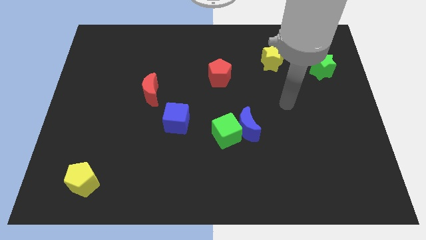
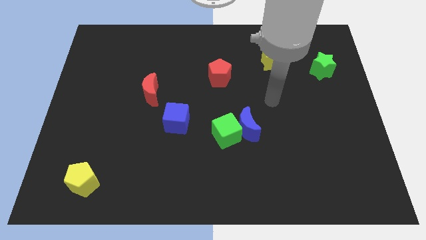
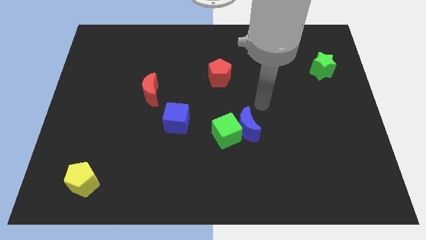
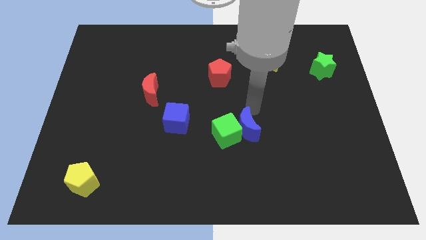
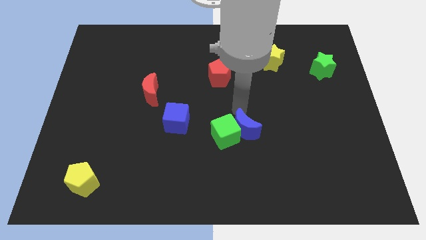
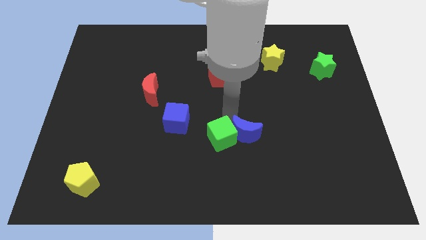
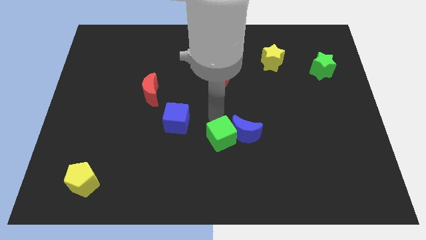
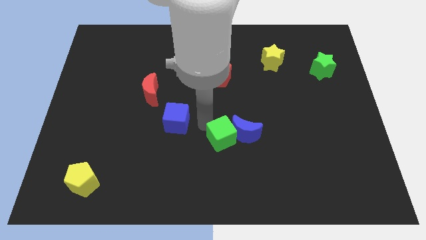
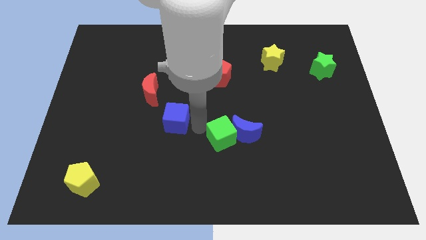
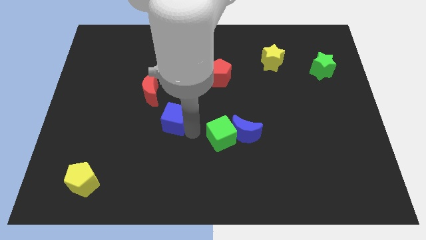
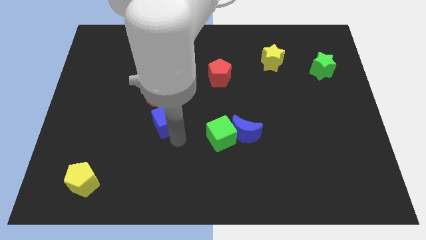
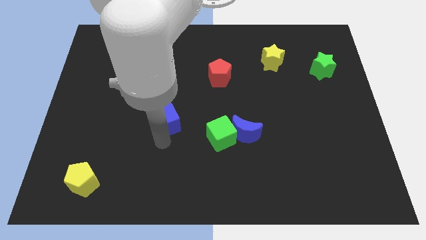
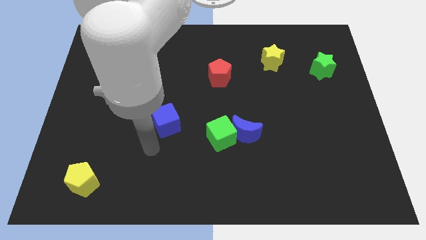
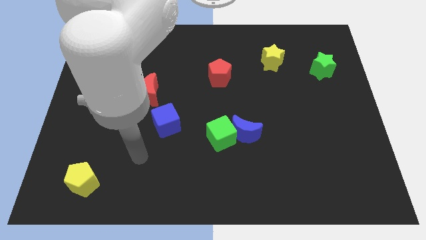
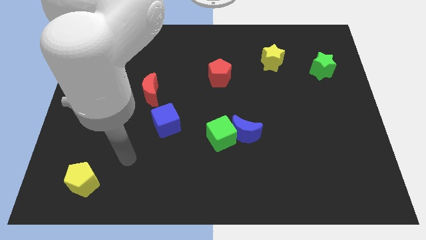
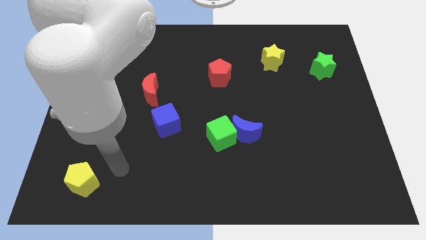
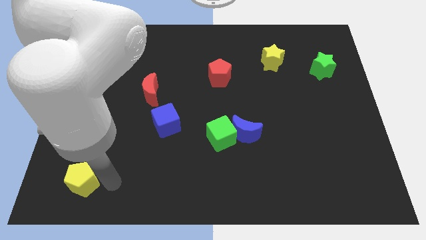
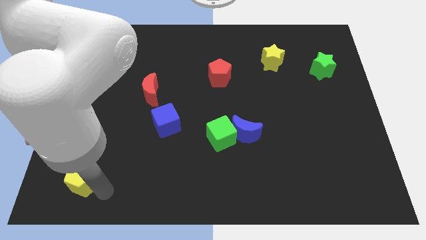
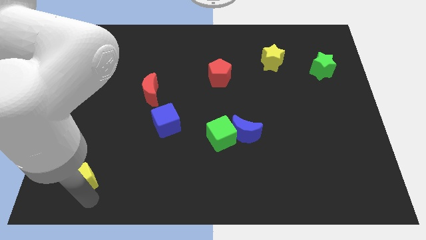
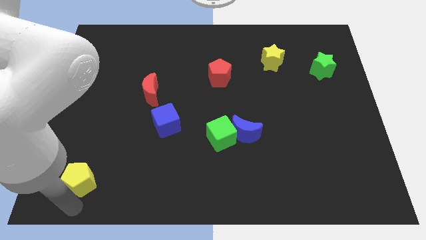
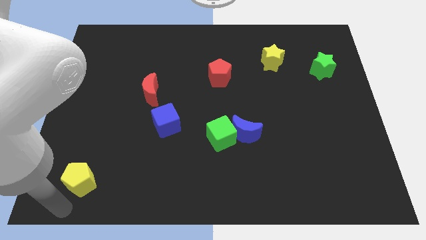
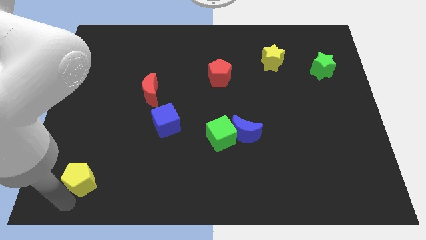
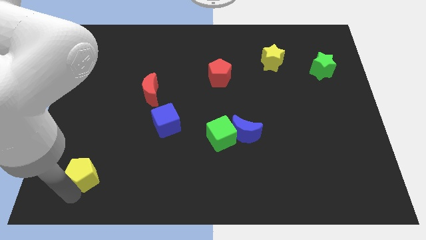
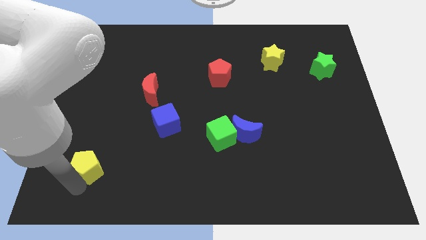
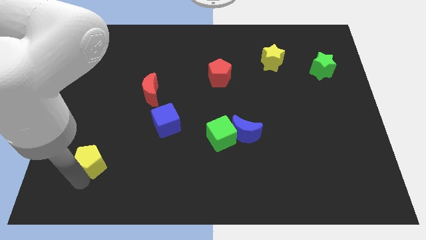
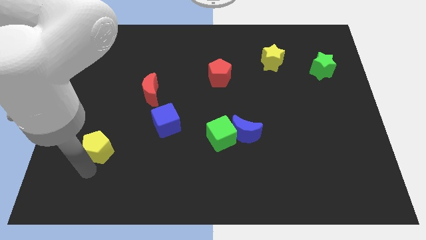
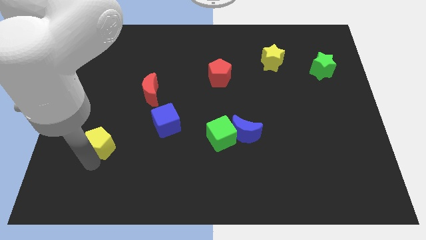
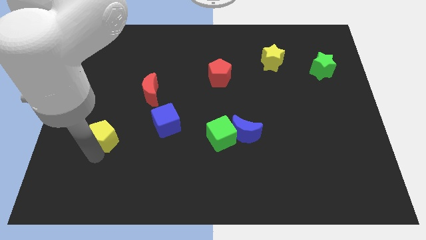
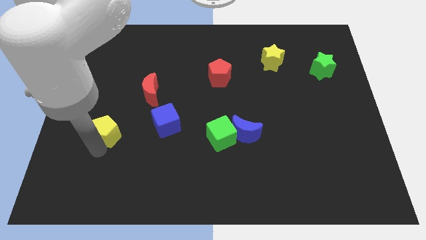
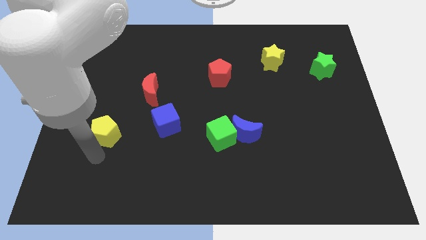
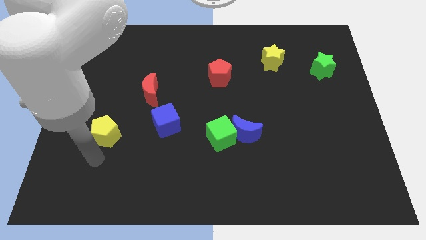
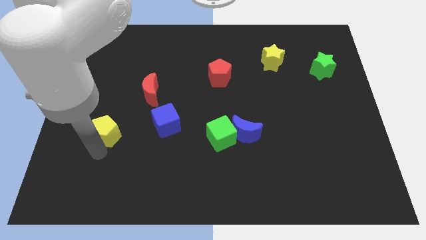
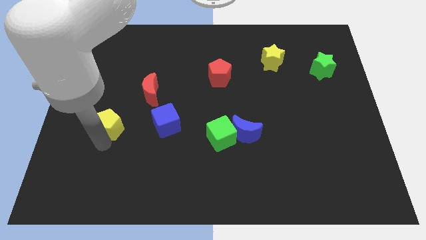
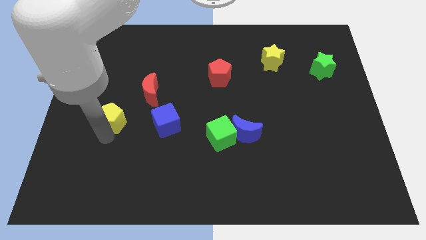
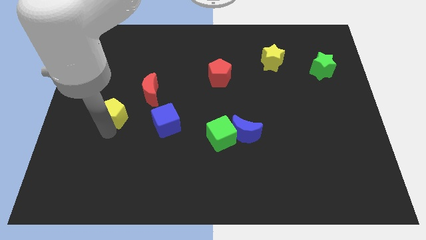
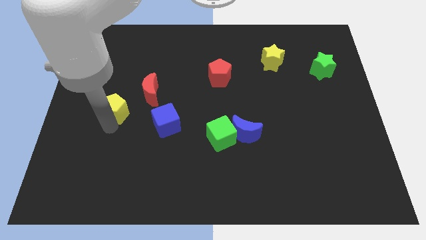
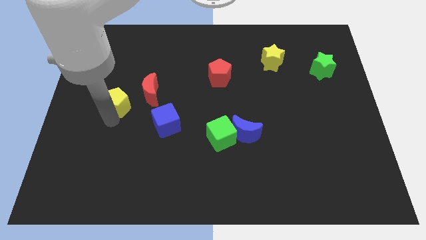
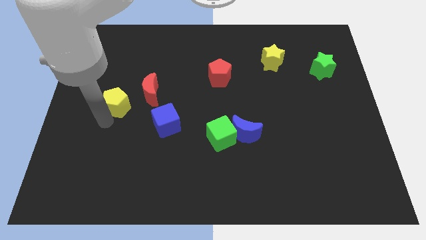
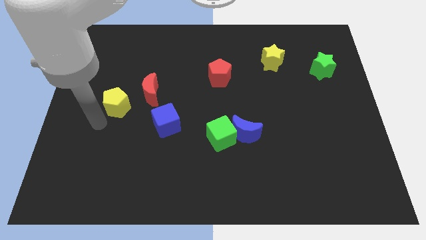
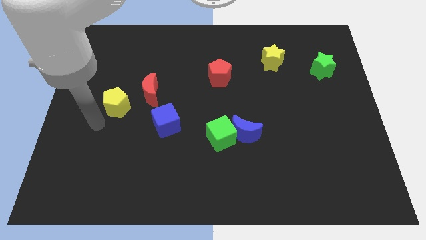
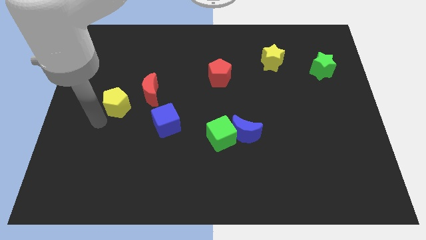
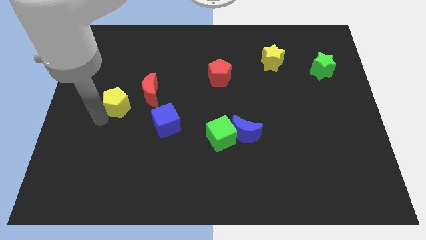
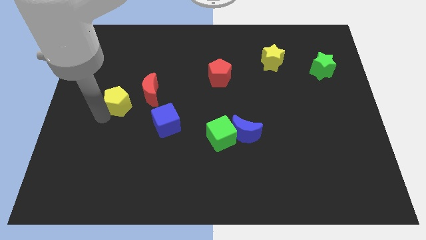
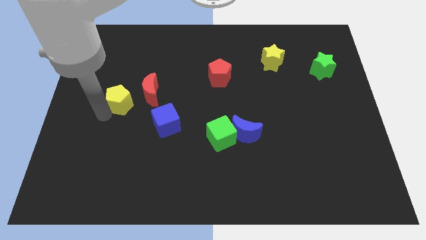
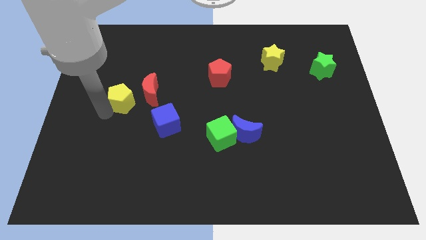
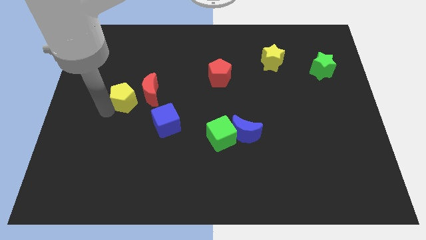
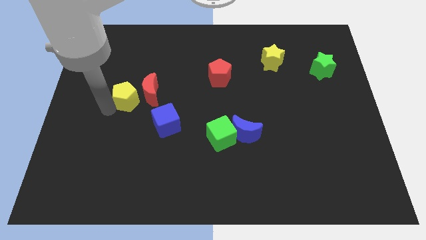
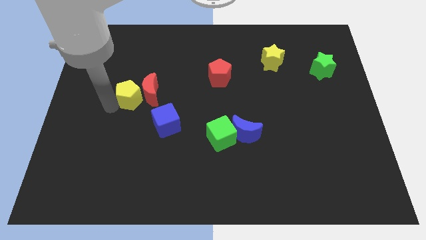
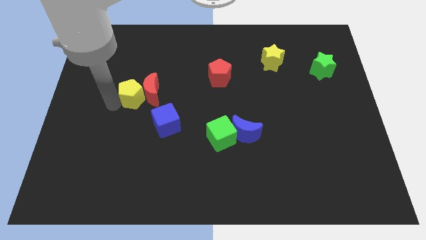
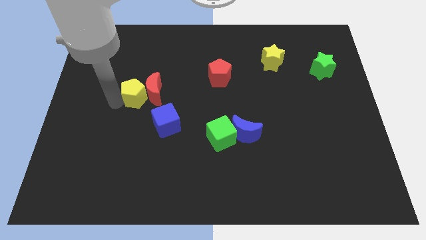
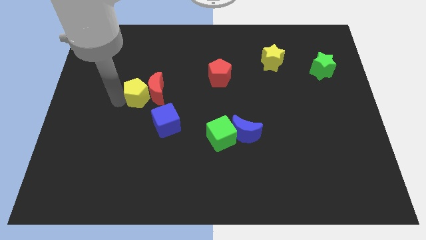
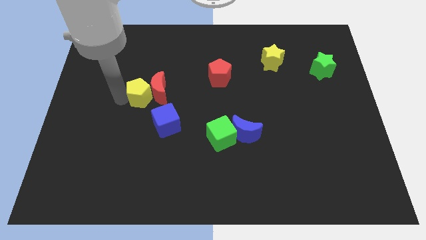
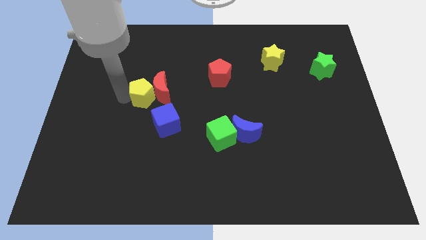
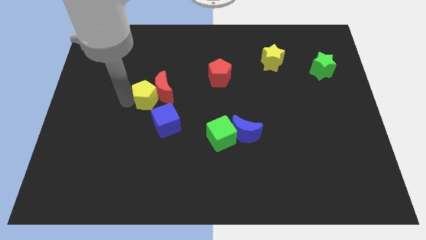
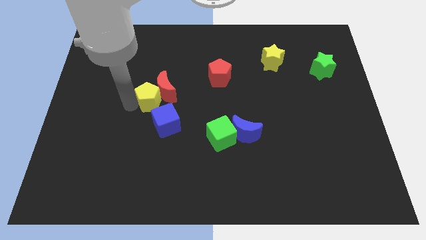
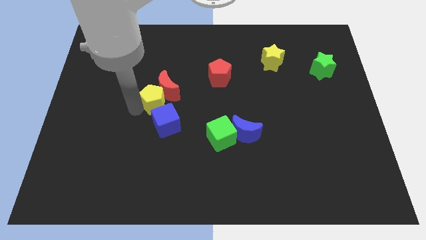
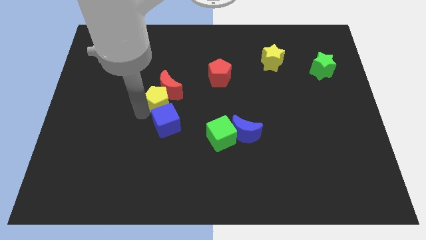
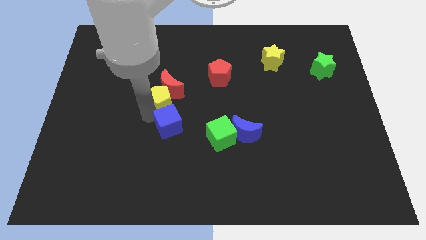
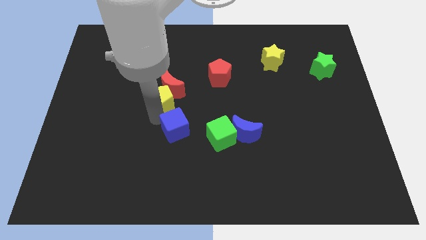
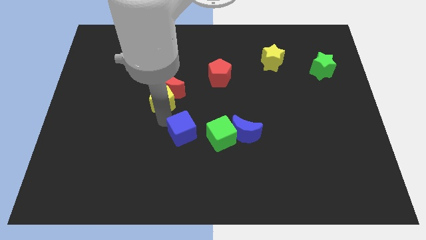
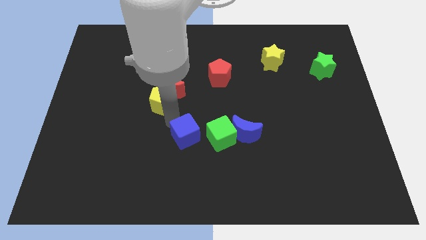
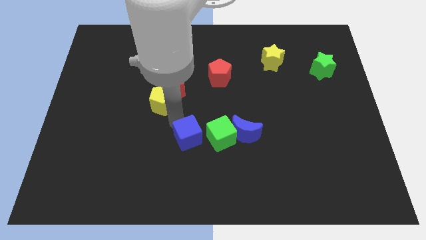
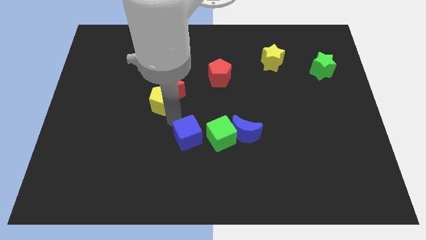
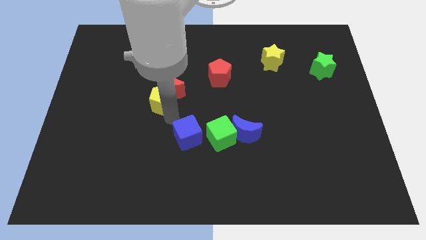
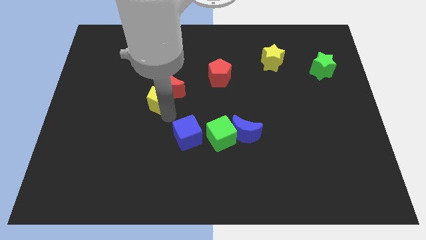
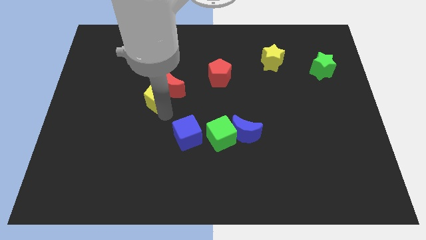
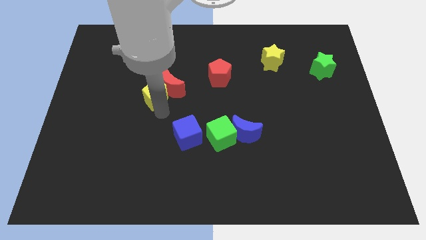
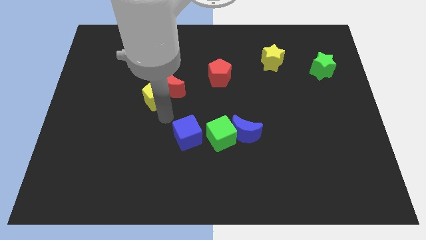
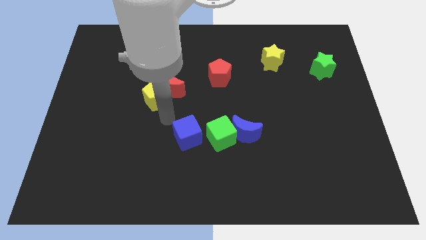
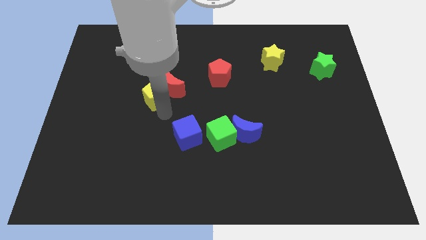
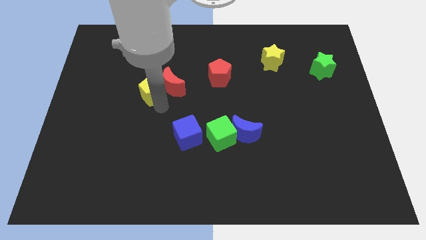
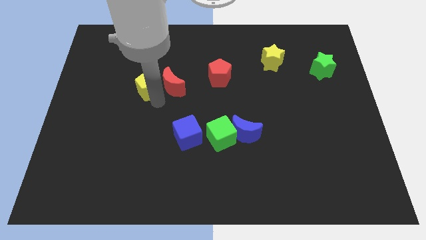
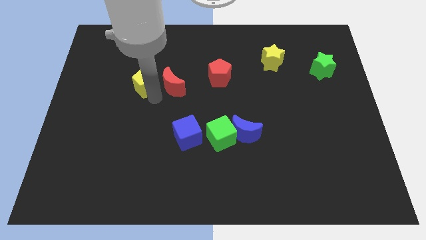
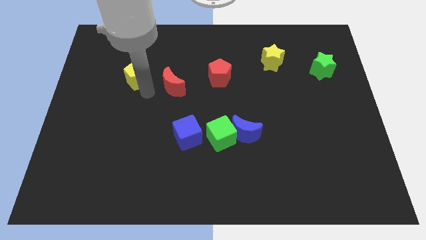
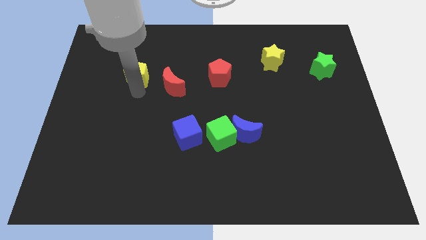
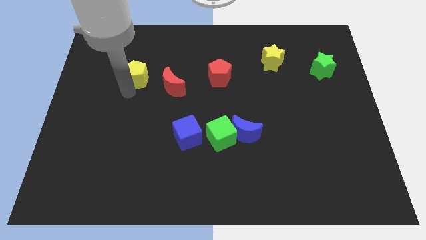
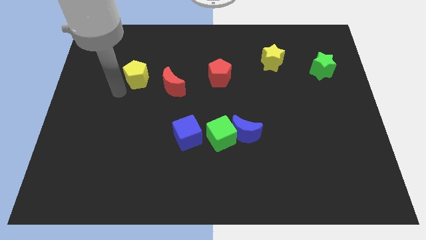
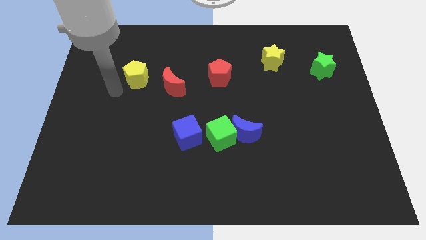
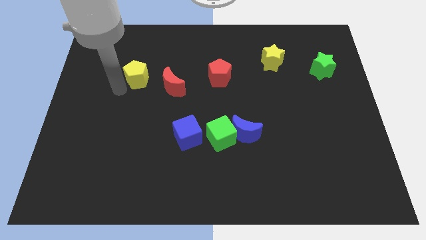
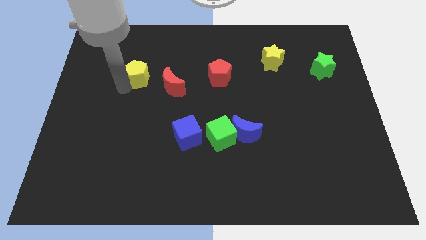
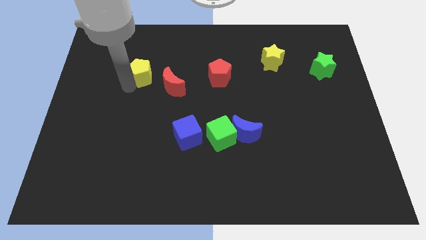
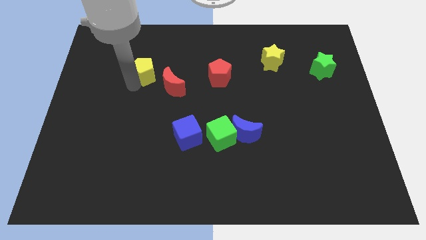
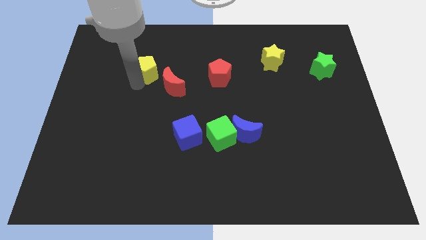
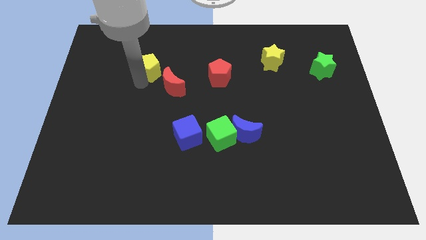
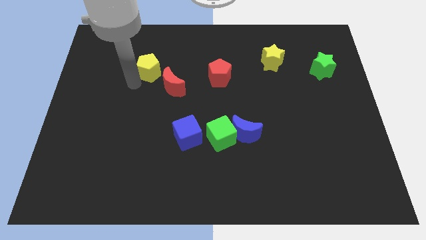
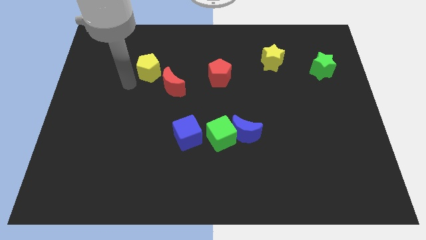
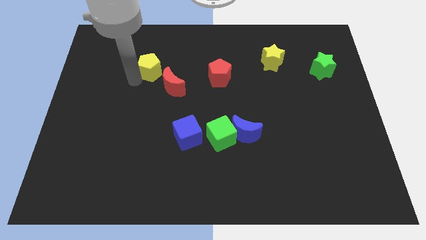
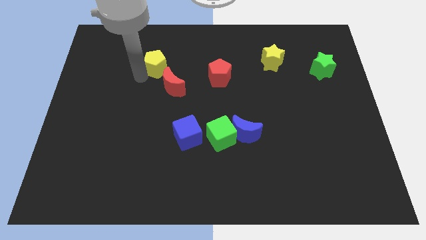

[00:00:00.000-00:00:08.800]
put the yellow pentagon to the top of the red moon
